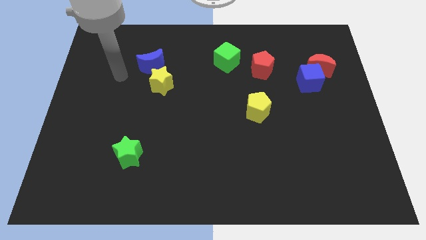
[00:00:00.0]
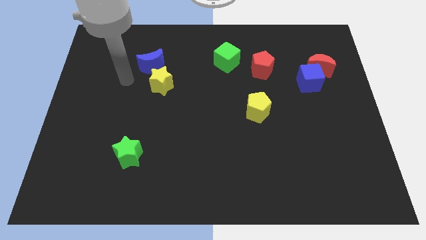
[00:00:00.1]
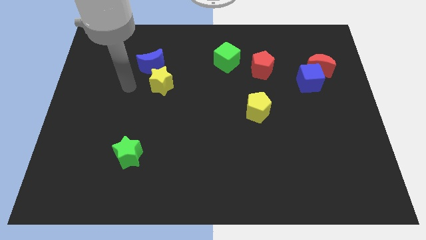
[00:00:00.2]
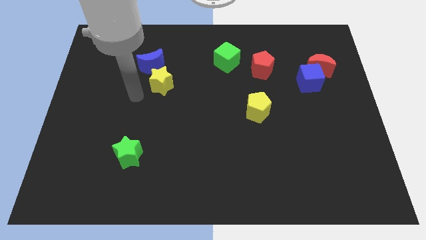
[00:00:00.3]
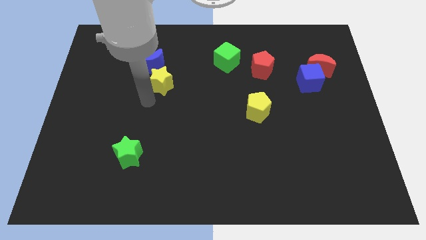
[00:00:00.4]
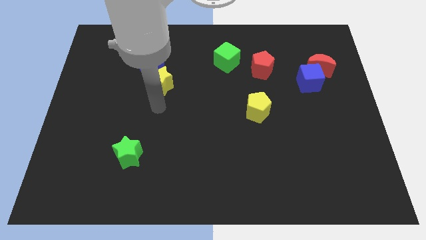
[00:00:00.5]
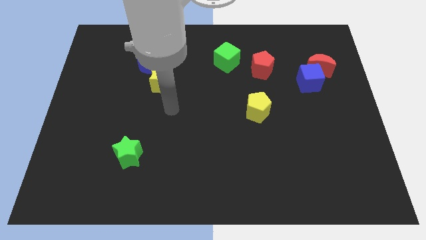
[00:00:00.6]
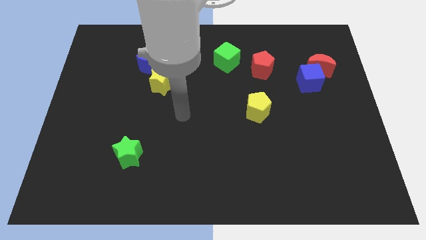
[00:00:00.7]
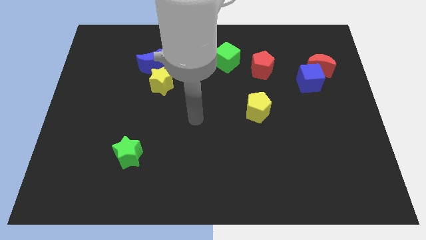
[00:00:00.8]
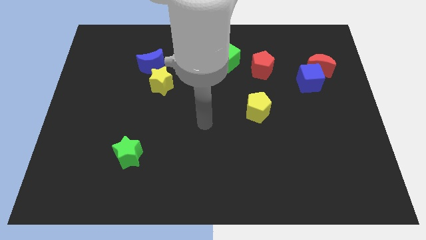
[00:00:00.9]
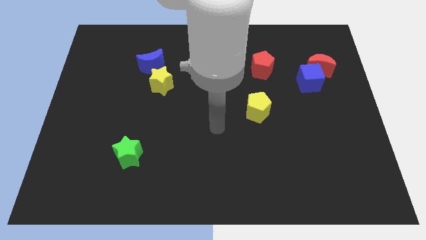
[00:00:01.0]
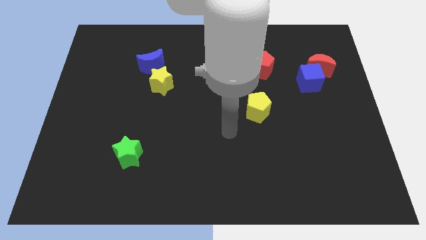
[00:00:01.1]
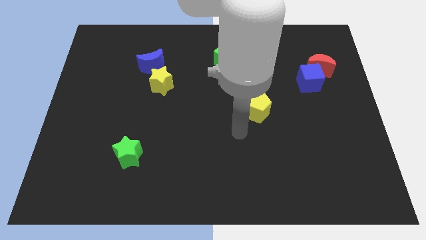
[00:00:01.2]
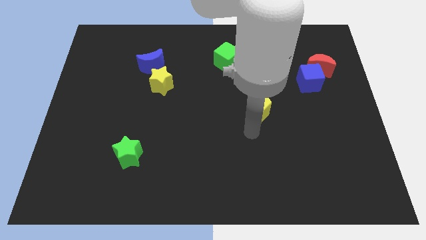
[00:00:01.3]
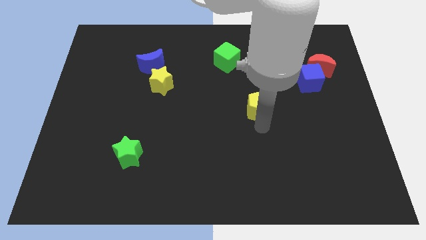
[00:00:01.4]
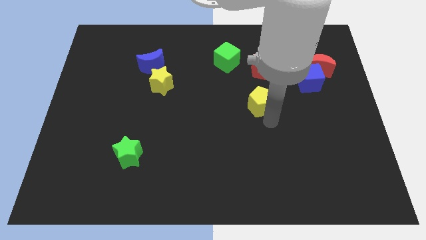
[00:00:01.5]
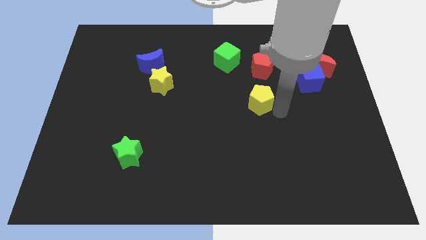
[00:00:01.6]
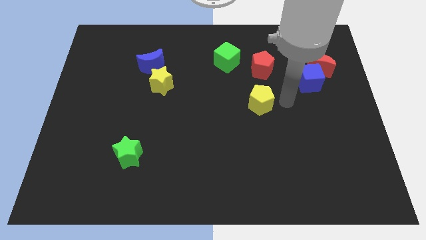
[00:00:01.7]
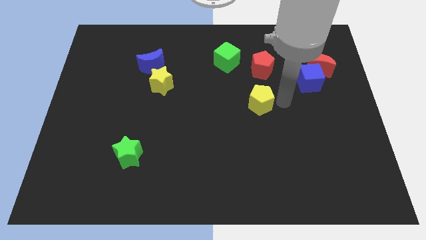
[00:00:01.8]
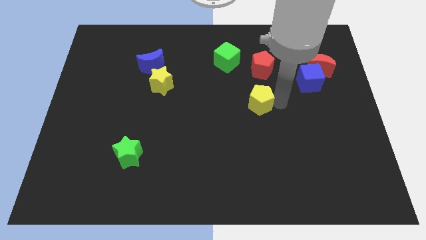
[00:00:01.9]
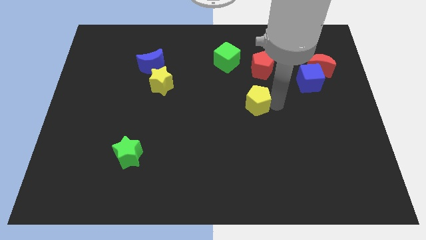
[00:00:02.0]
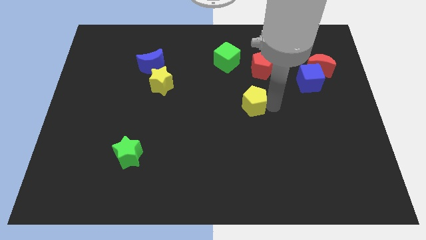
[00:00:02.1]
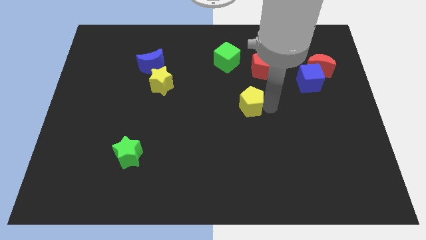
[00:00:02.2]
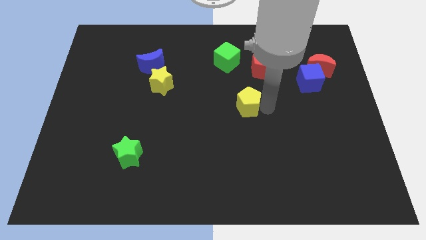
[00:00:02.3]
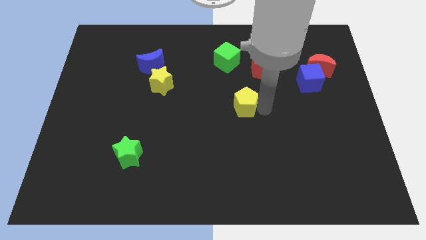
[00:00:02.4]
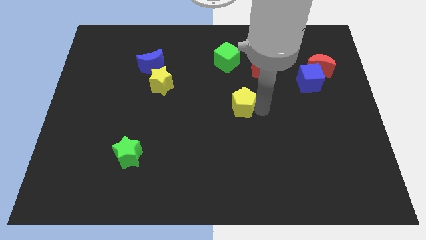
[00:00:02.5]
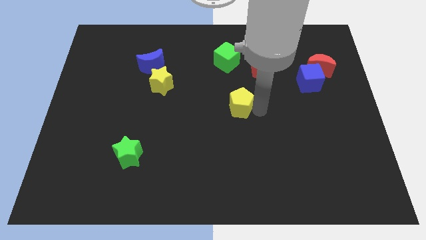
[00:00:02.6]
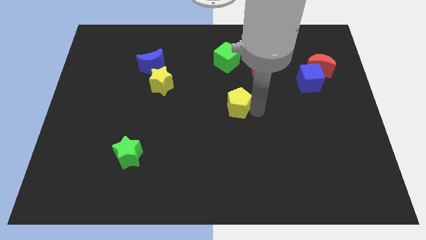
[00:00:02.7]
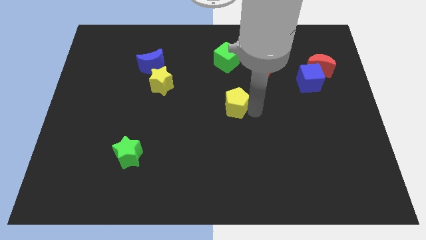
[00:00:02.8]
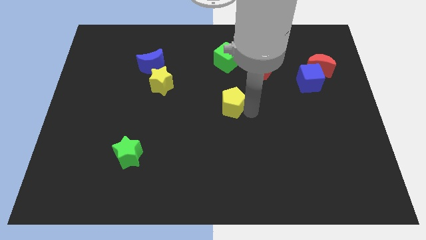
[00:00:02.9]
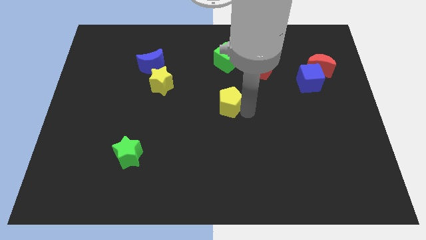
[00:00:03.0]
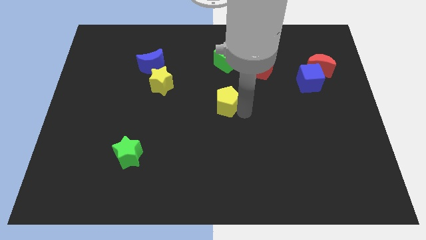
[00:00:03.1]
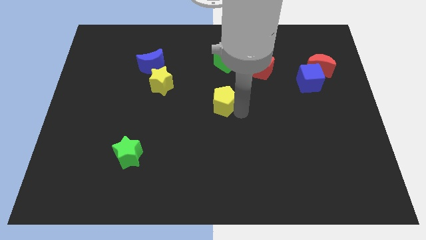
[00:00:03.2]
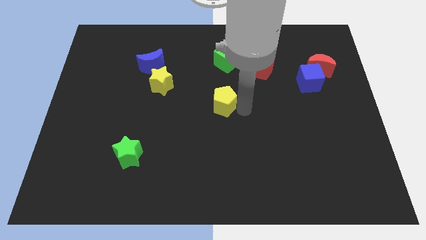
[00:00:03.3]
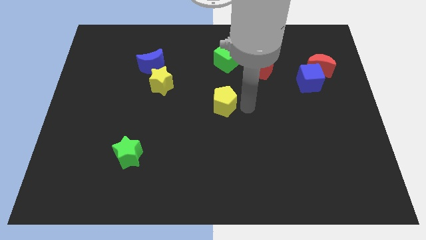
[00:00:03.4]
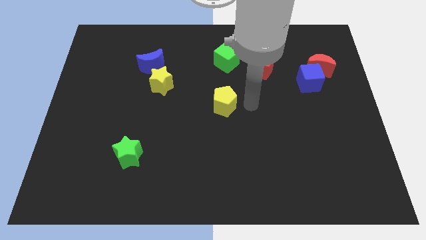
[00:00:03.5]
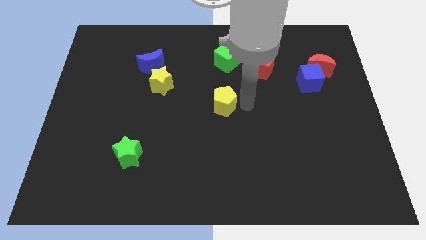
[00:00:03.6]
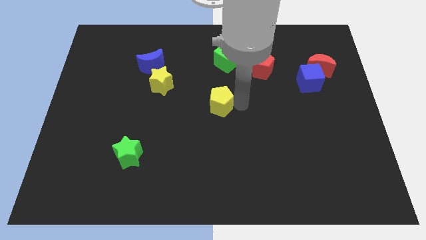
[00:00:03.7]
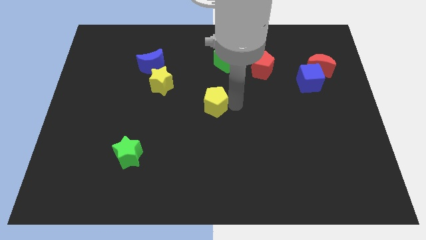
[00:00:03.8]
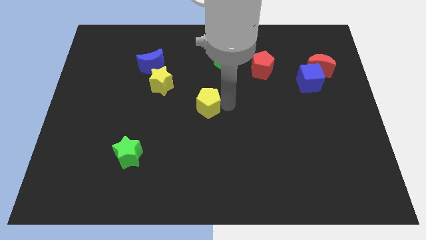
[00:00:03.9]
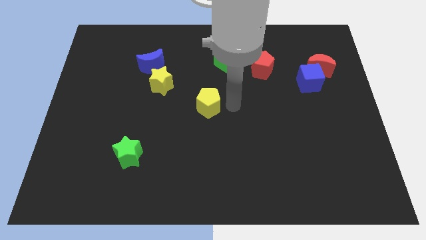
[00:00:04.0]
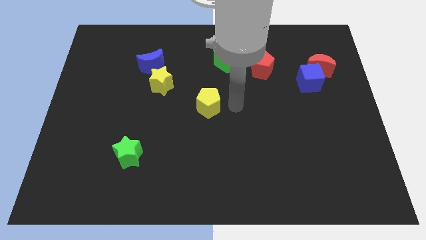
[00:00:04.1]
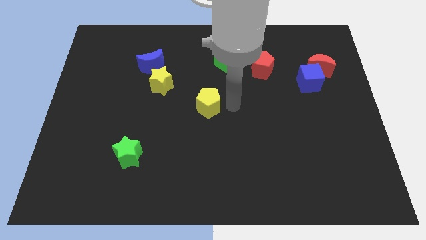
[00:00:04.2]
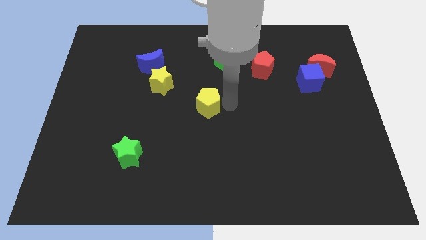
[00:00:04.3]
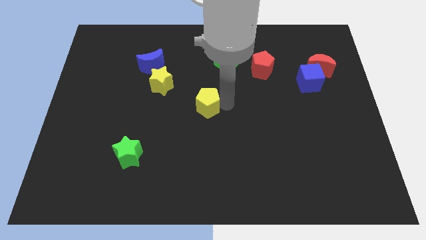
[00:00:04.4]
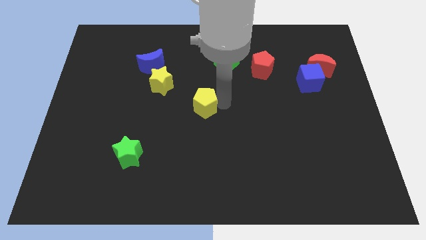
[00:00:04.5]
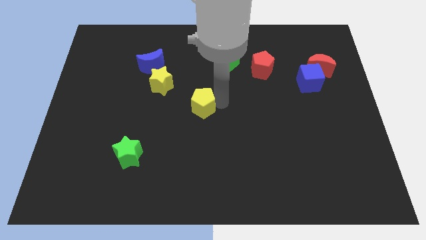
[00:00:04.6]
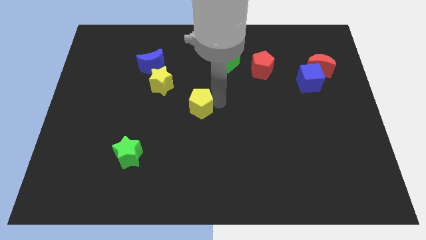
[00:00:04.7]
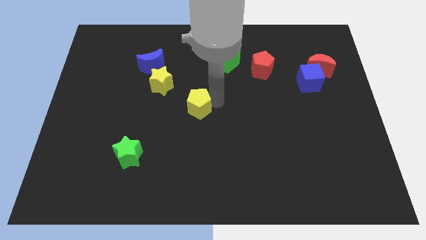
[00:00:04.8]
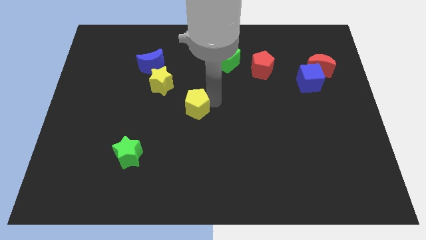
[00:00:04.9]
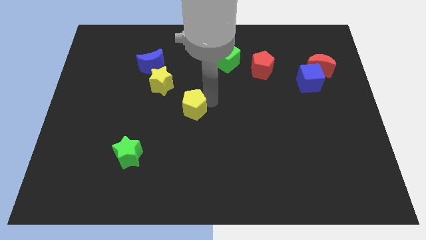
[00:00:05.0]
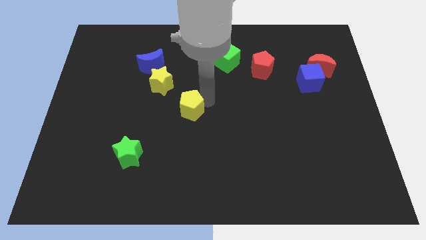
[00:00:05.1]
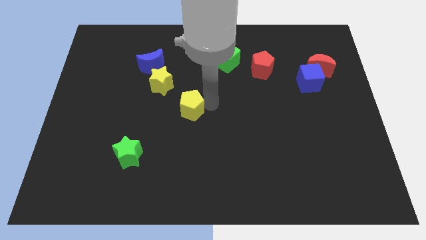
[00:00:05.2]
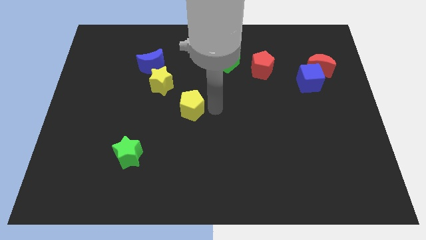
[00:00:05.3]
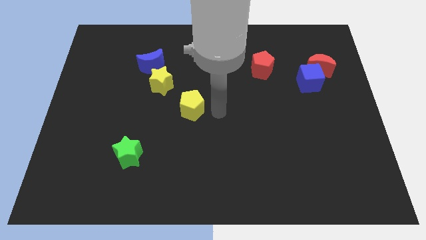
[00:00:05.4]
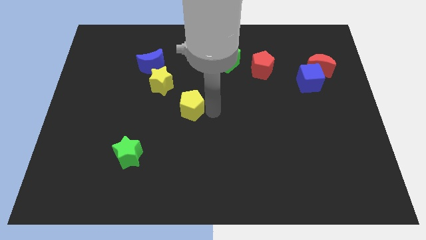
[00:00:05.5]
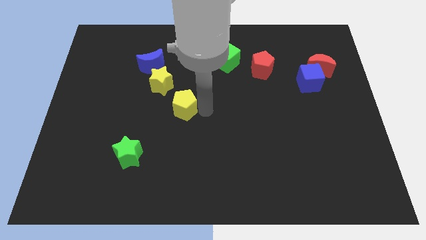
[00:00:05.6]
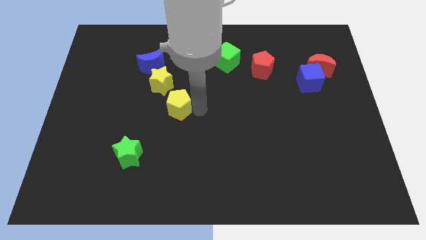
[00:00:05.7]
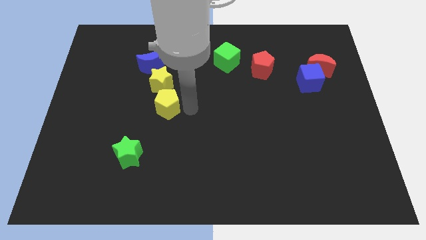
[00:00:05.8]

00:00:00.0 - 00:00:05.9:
push the yellow pentagon to the left

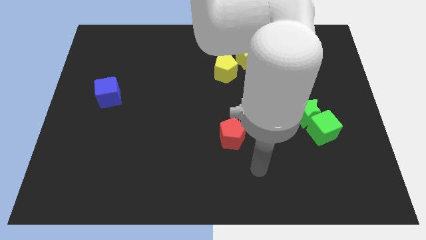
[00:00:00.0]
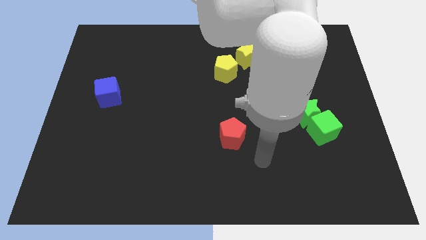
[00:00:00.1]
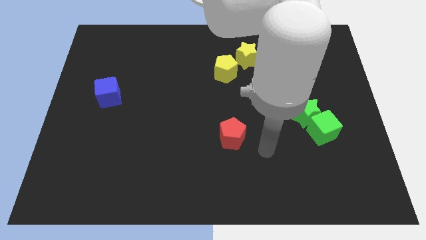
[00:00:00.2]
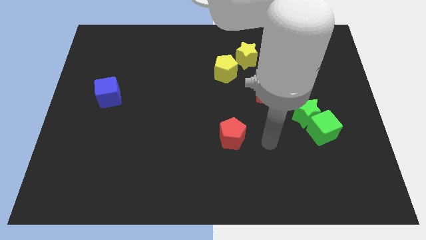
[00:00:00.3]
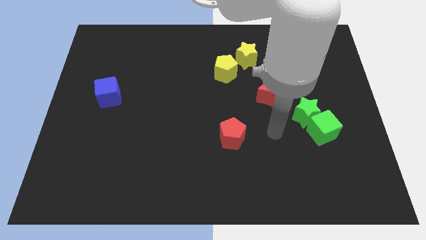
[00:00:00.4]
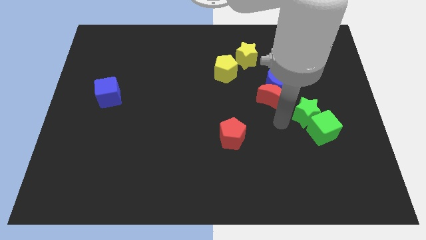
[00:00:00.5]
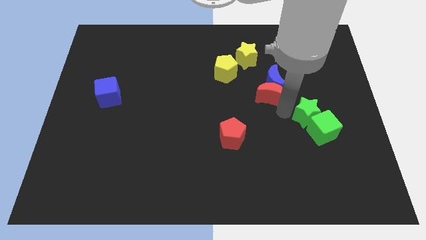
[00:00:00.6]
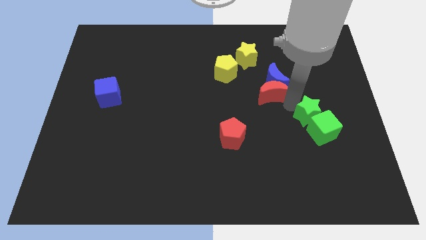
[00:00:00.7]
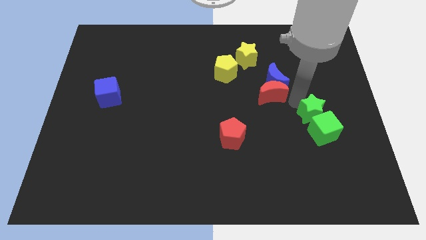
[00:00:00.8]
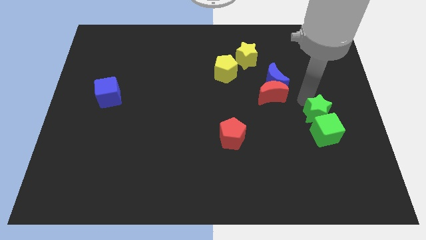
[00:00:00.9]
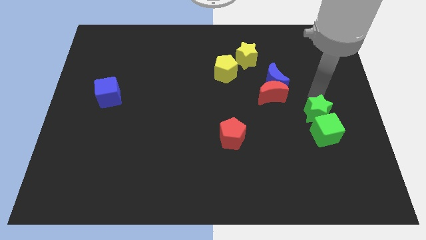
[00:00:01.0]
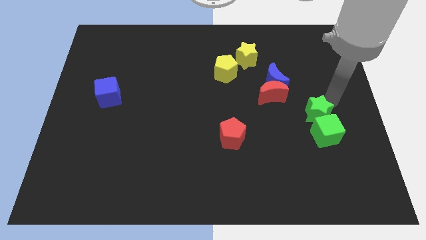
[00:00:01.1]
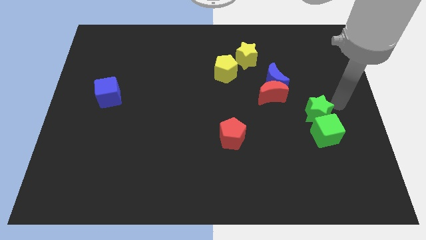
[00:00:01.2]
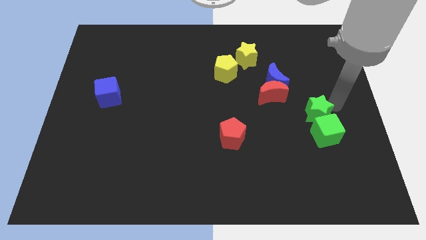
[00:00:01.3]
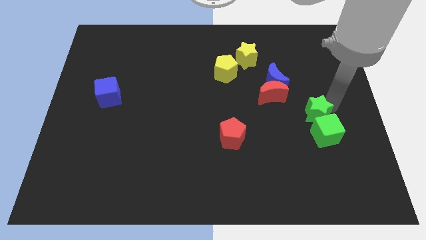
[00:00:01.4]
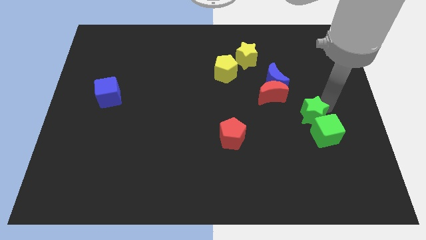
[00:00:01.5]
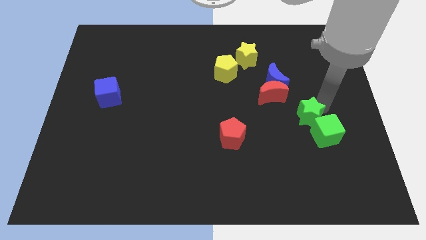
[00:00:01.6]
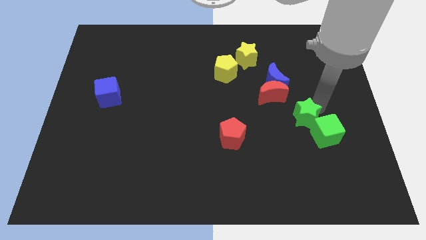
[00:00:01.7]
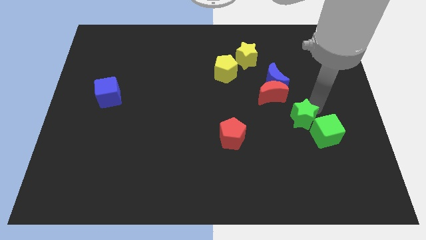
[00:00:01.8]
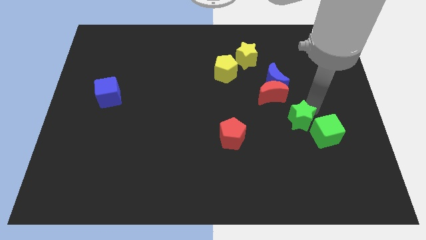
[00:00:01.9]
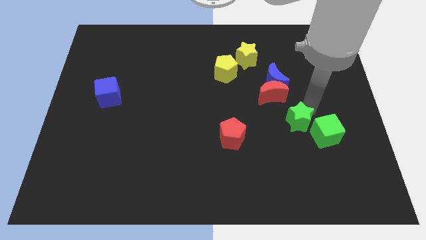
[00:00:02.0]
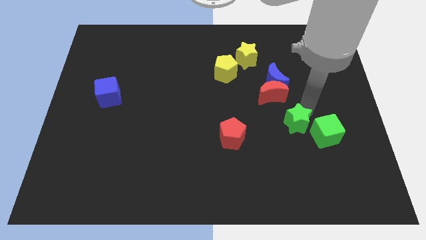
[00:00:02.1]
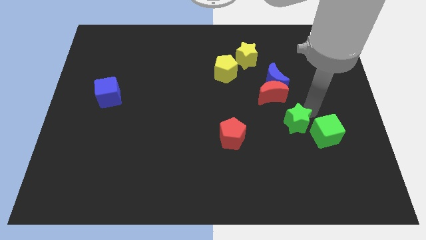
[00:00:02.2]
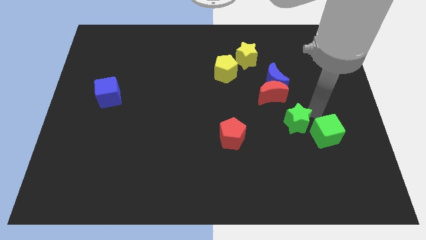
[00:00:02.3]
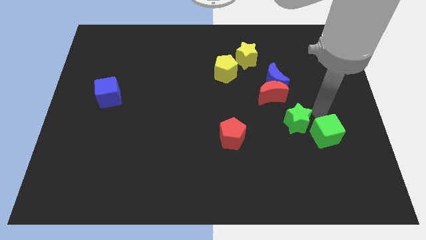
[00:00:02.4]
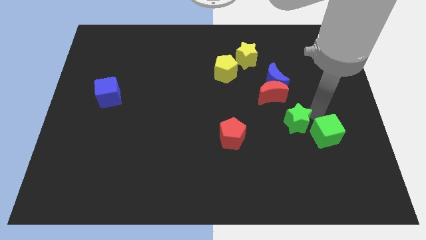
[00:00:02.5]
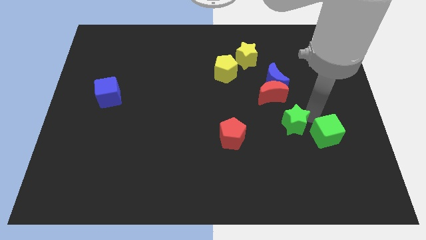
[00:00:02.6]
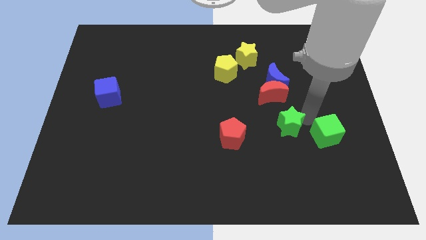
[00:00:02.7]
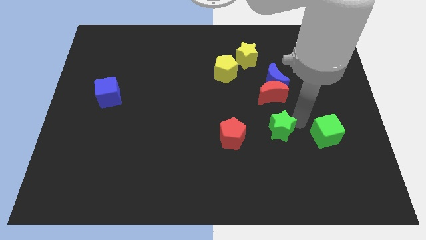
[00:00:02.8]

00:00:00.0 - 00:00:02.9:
slightly move the green star down and then left
